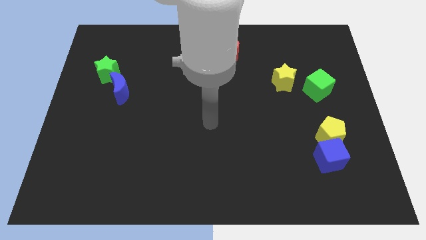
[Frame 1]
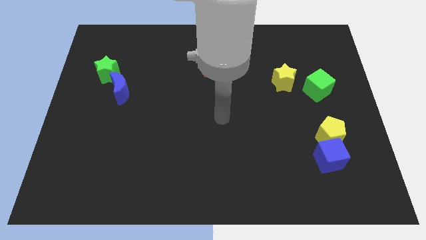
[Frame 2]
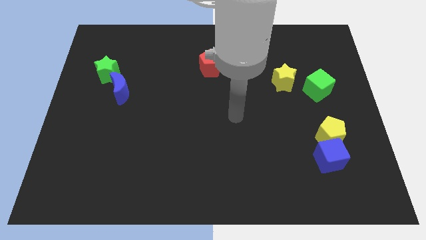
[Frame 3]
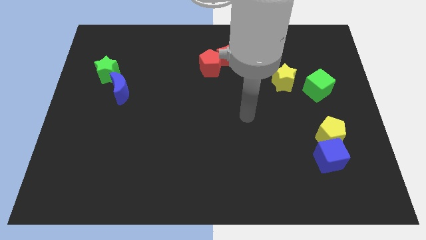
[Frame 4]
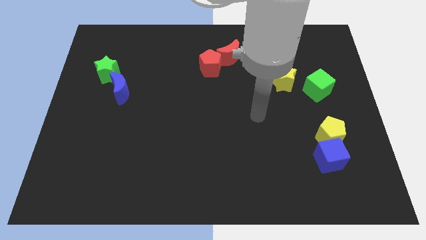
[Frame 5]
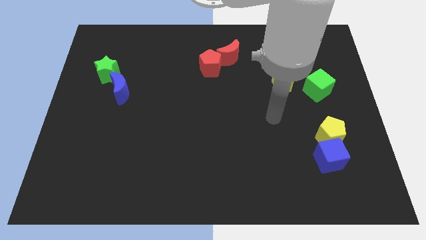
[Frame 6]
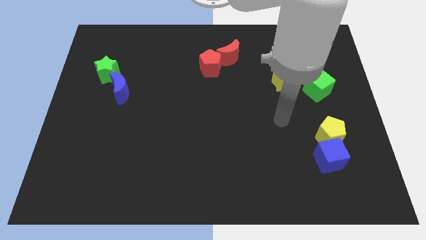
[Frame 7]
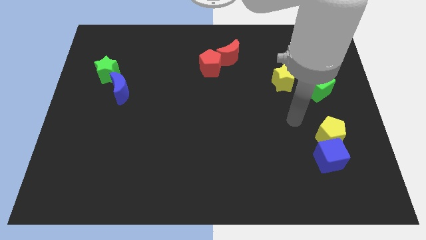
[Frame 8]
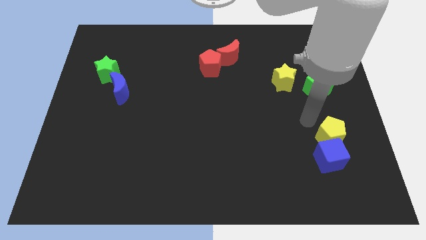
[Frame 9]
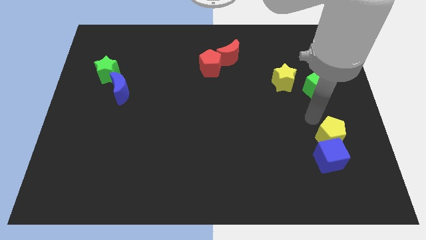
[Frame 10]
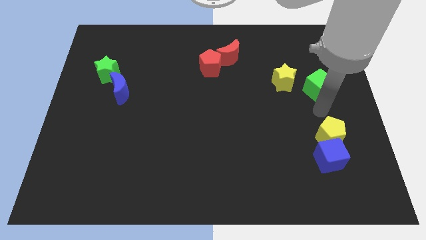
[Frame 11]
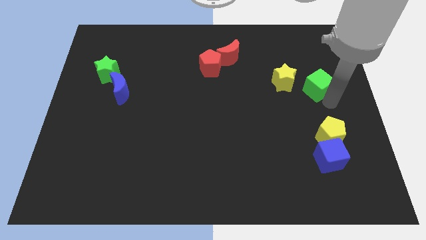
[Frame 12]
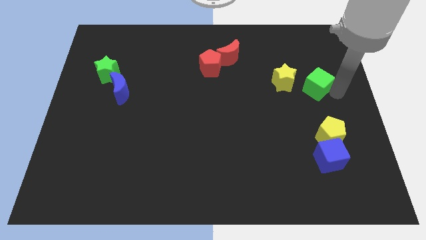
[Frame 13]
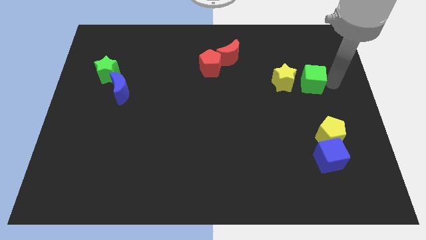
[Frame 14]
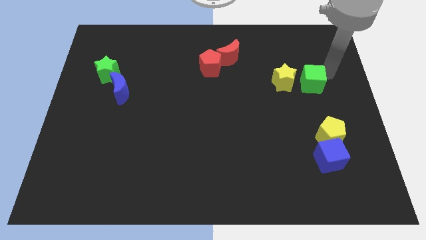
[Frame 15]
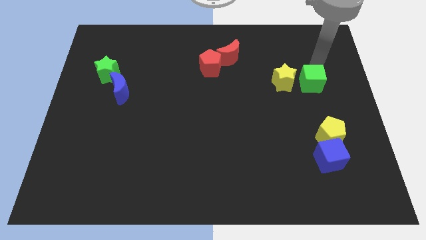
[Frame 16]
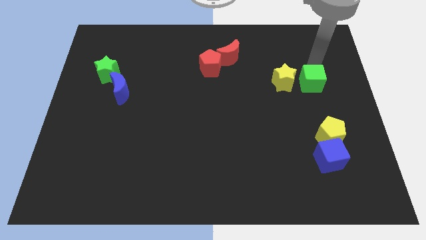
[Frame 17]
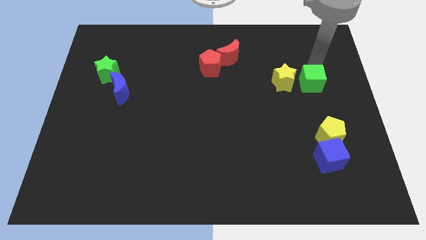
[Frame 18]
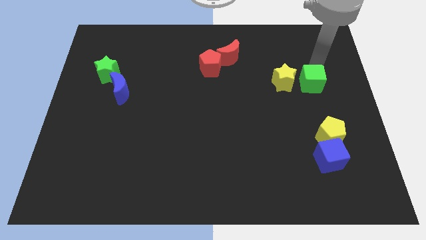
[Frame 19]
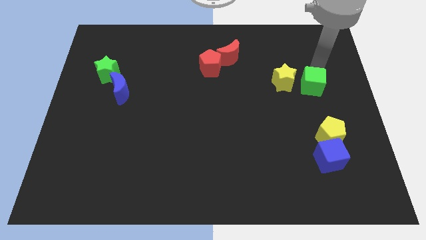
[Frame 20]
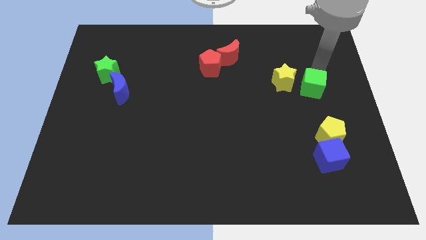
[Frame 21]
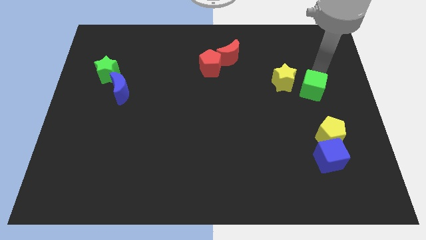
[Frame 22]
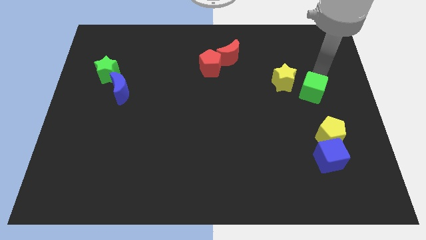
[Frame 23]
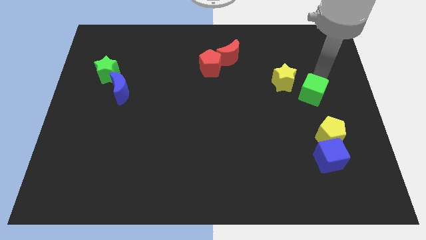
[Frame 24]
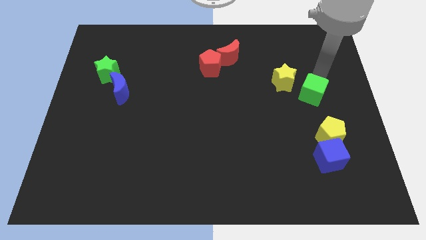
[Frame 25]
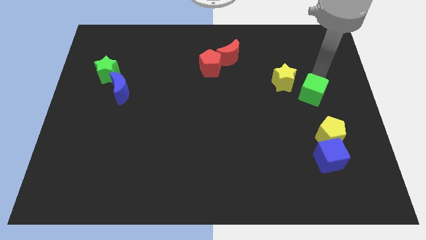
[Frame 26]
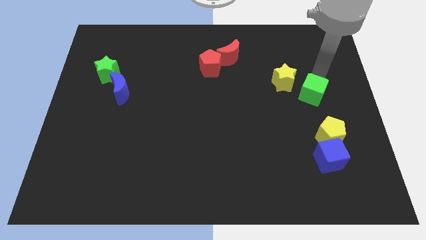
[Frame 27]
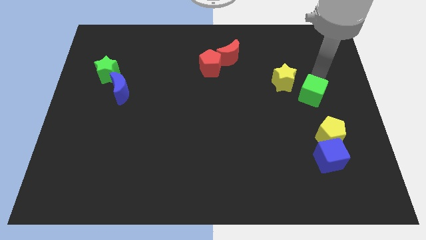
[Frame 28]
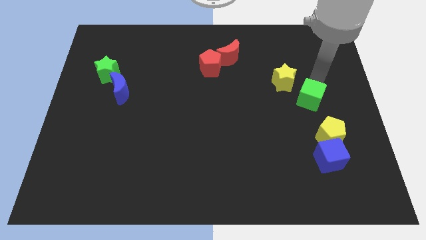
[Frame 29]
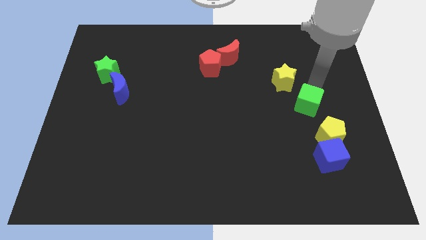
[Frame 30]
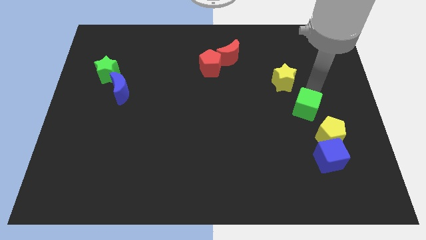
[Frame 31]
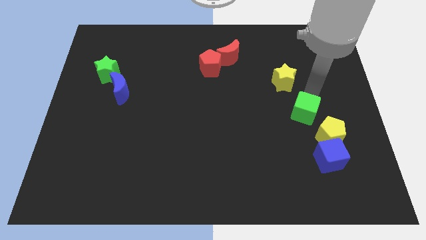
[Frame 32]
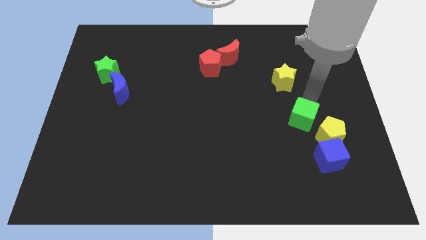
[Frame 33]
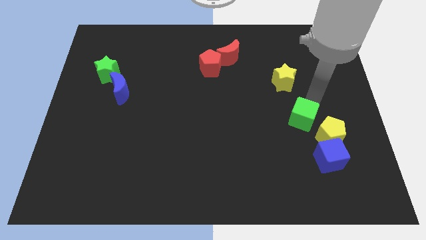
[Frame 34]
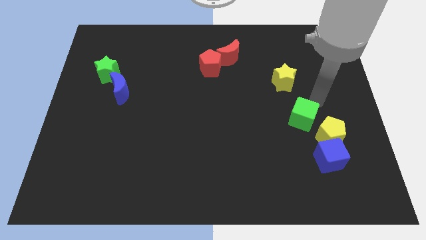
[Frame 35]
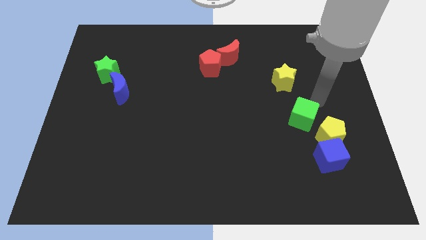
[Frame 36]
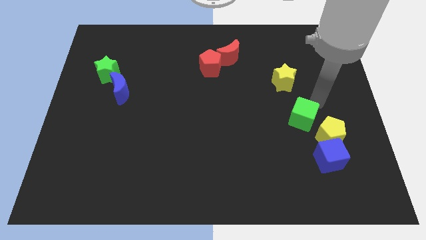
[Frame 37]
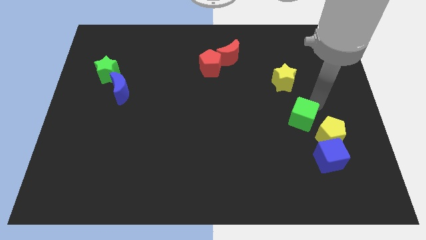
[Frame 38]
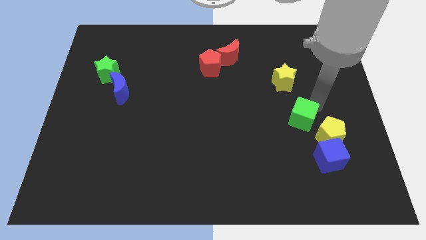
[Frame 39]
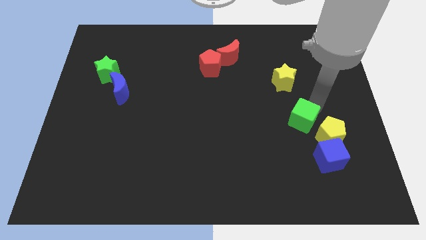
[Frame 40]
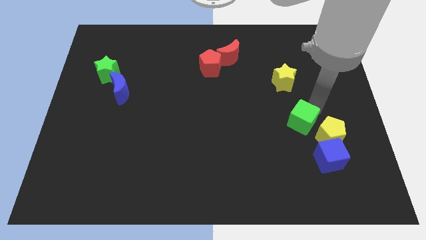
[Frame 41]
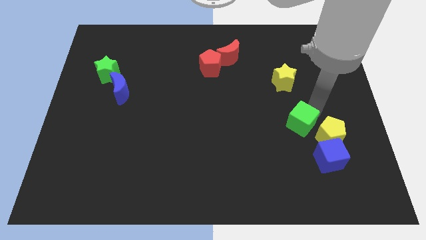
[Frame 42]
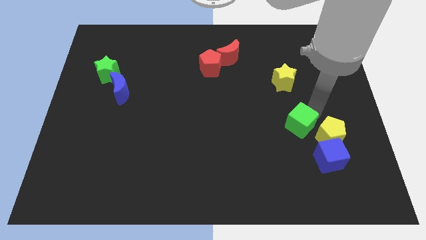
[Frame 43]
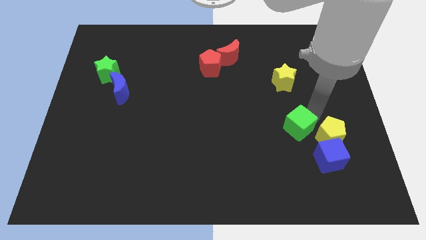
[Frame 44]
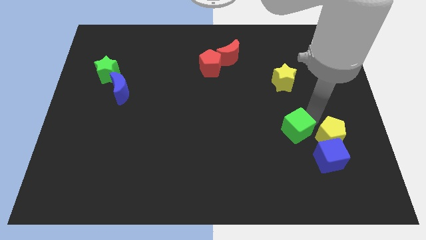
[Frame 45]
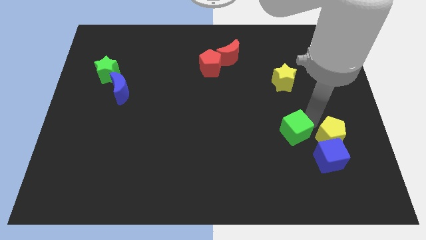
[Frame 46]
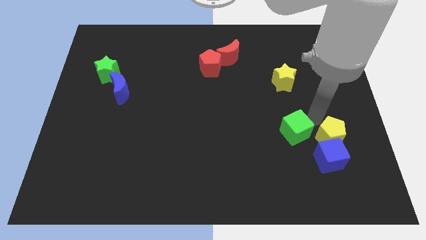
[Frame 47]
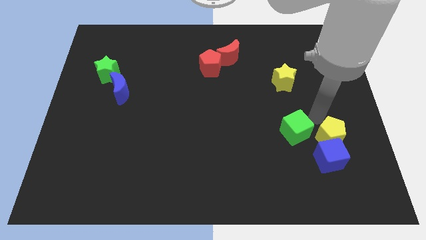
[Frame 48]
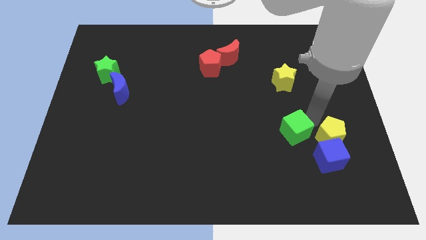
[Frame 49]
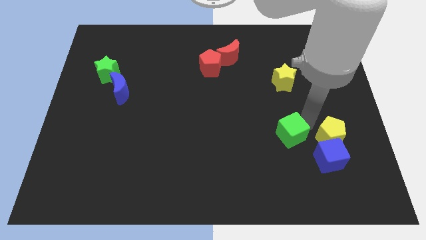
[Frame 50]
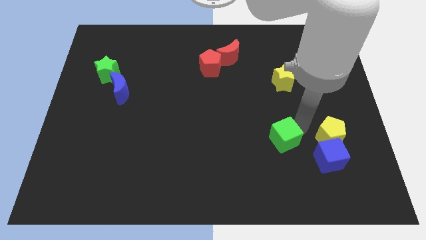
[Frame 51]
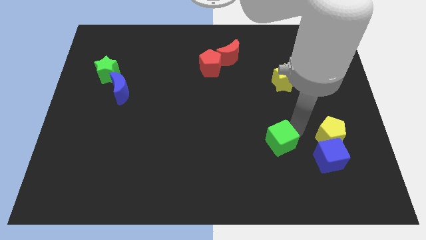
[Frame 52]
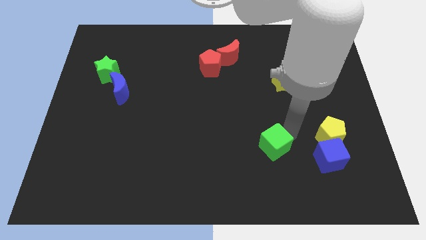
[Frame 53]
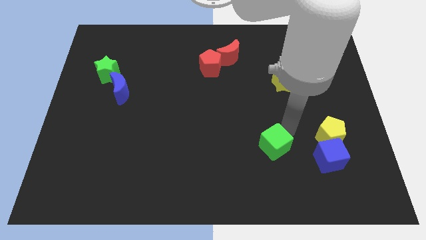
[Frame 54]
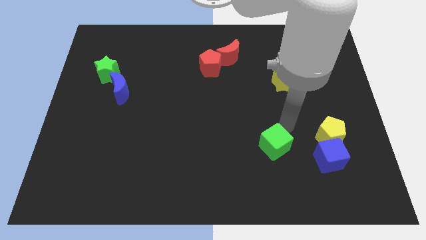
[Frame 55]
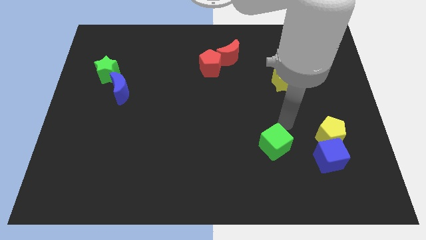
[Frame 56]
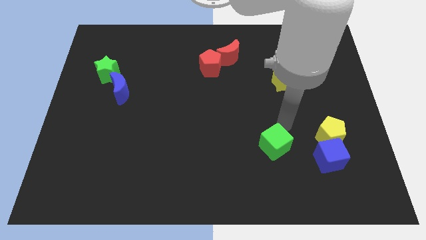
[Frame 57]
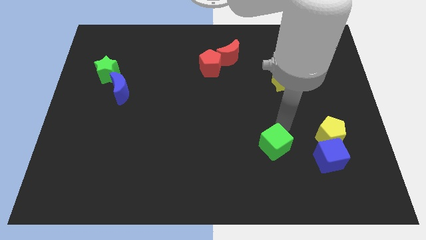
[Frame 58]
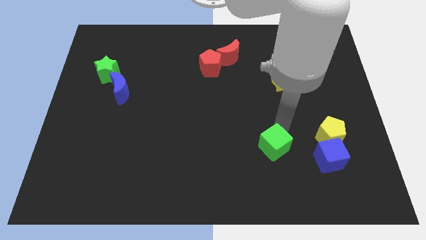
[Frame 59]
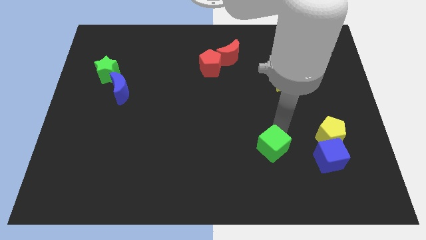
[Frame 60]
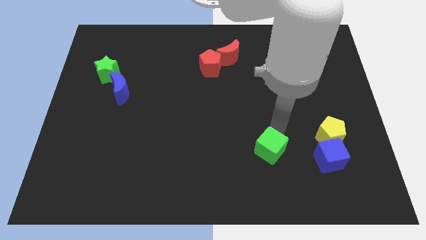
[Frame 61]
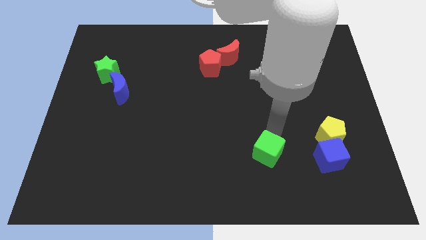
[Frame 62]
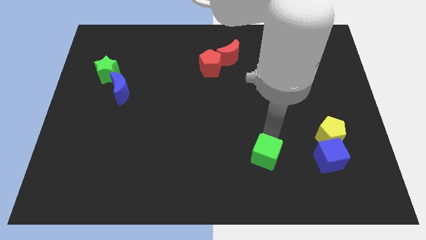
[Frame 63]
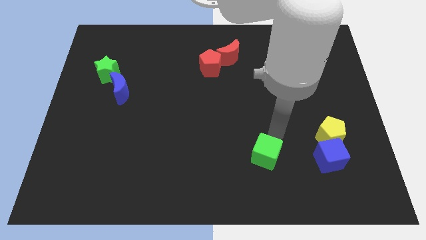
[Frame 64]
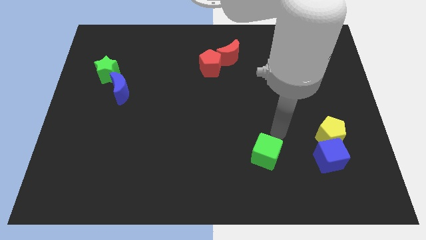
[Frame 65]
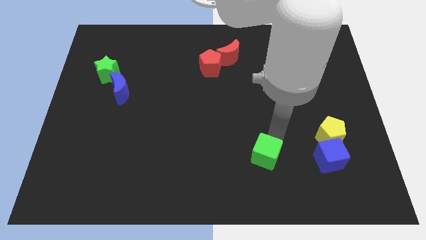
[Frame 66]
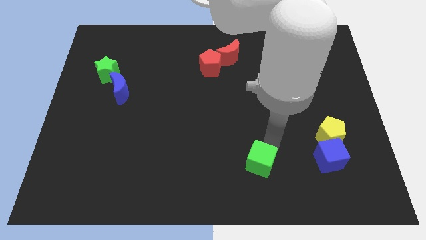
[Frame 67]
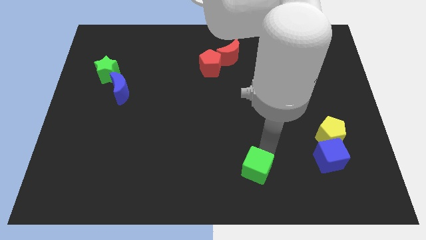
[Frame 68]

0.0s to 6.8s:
push the green cube to the bottom side

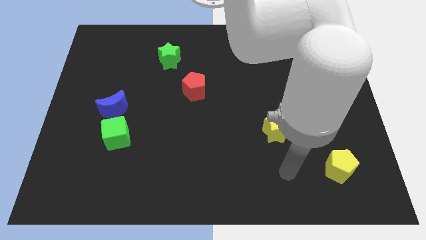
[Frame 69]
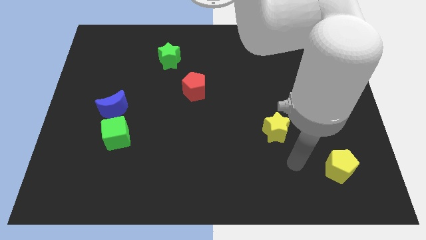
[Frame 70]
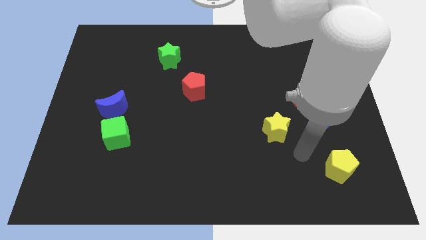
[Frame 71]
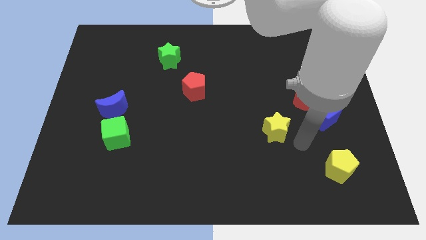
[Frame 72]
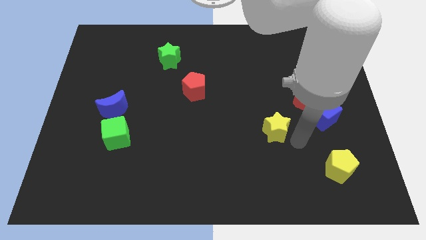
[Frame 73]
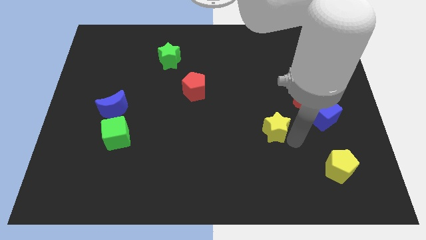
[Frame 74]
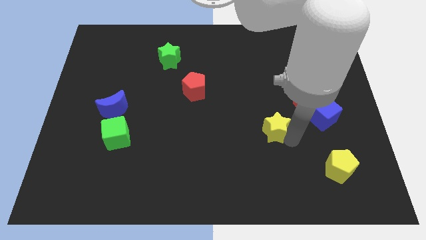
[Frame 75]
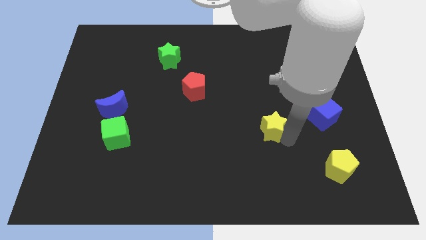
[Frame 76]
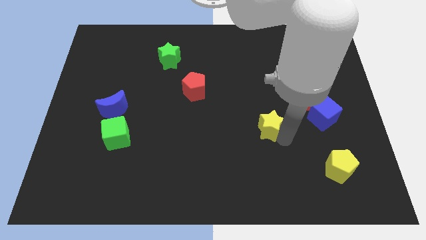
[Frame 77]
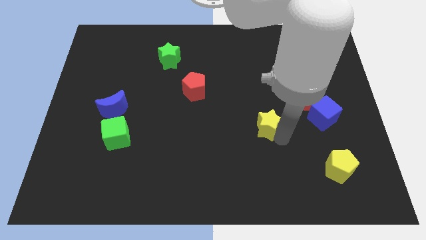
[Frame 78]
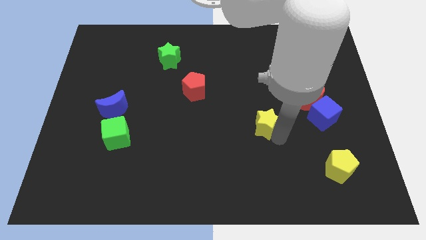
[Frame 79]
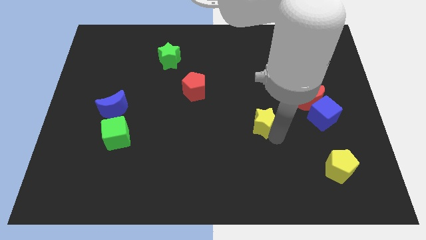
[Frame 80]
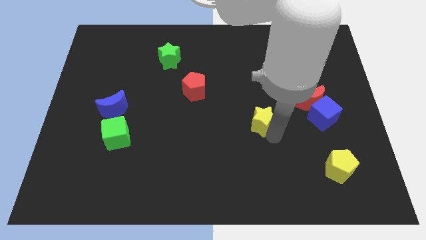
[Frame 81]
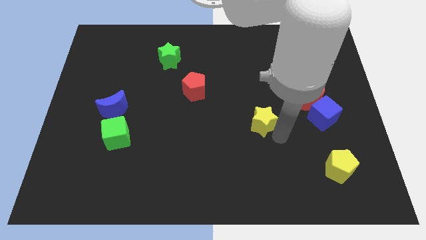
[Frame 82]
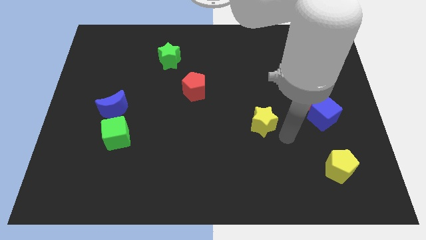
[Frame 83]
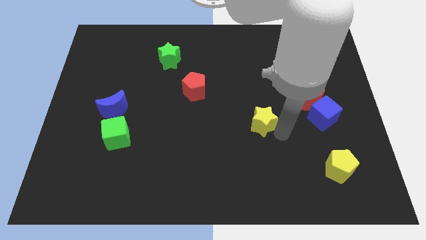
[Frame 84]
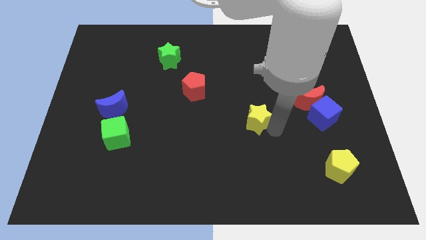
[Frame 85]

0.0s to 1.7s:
put the yellow star to the center of the board
